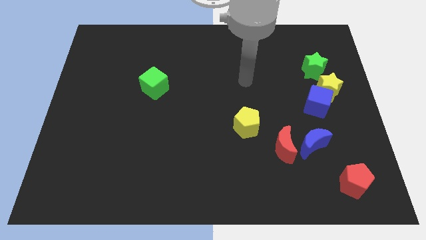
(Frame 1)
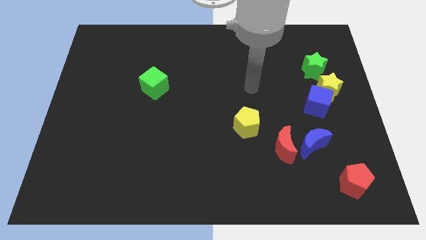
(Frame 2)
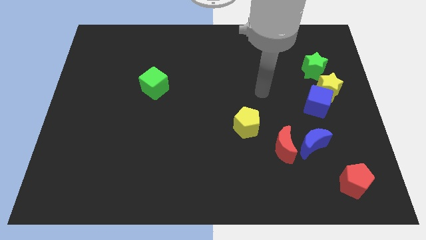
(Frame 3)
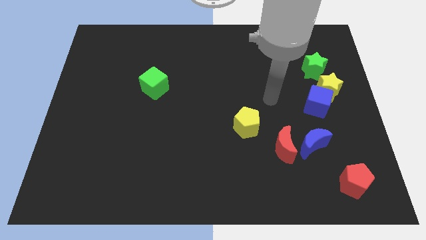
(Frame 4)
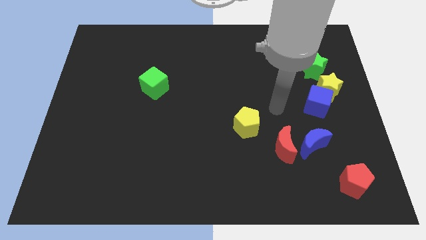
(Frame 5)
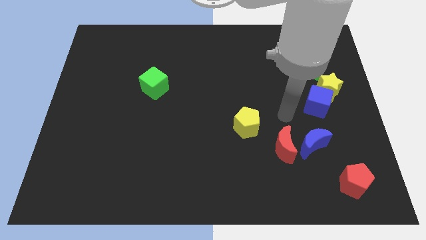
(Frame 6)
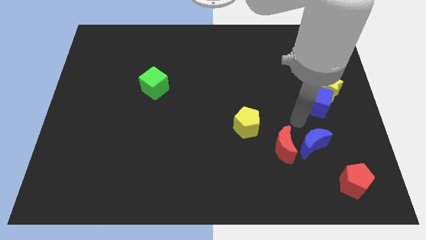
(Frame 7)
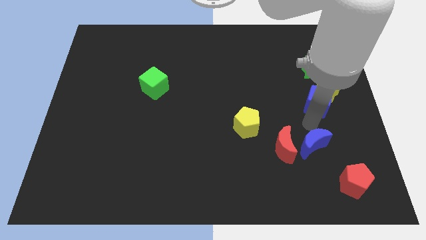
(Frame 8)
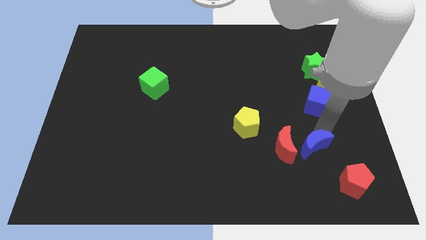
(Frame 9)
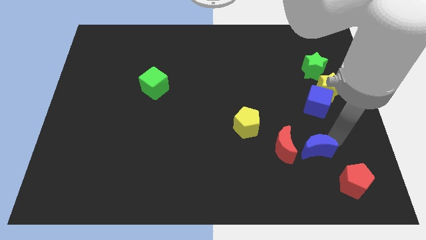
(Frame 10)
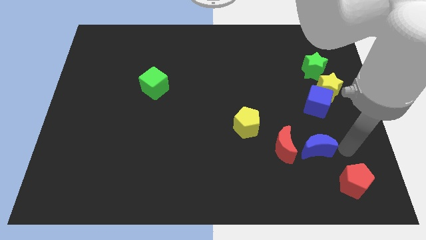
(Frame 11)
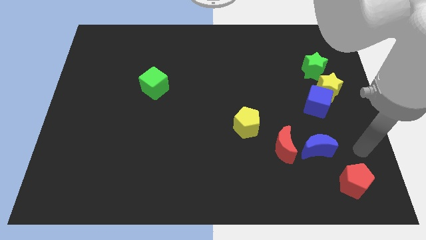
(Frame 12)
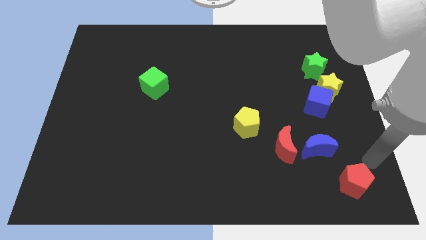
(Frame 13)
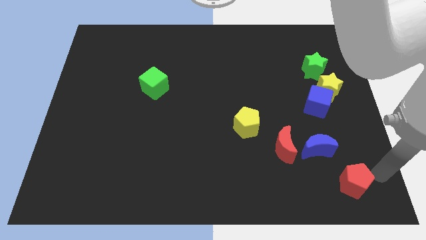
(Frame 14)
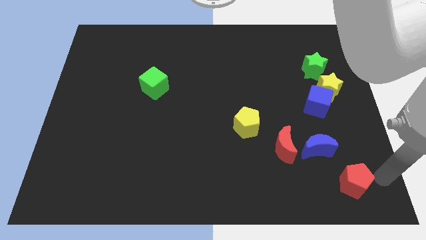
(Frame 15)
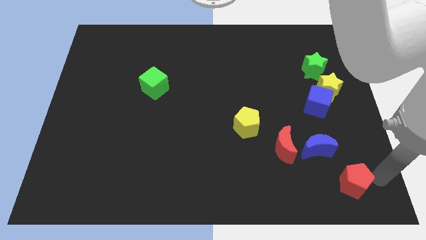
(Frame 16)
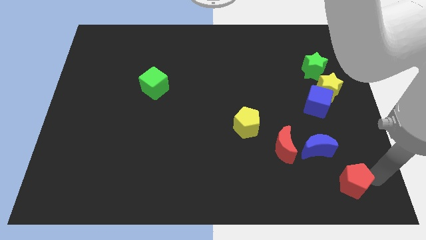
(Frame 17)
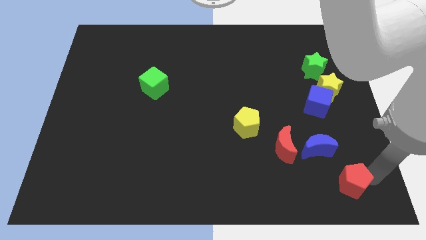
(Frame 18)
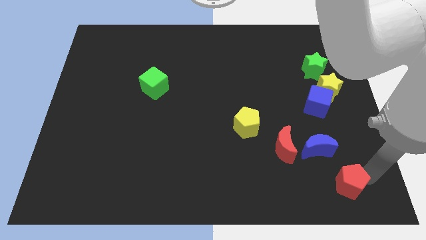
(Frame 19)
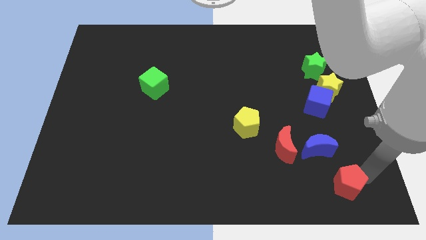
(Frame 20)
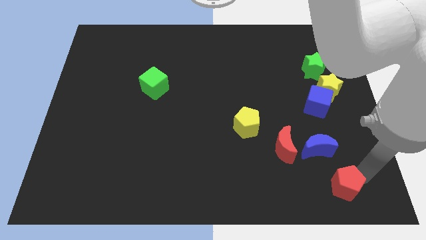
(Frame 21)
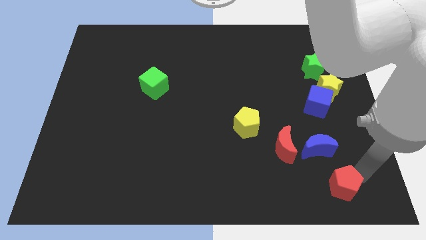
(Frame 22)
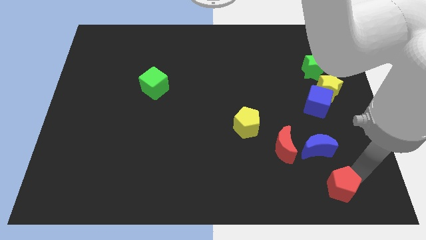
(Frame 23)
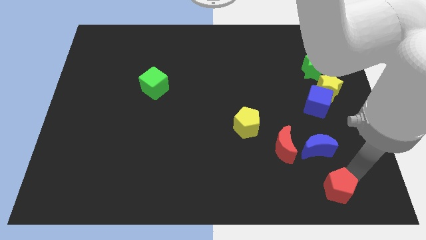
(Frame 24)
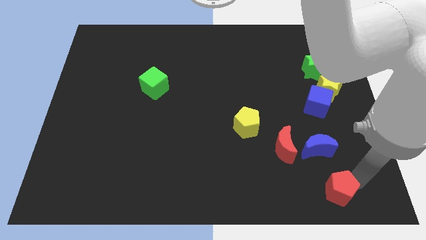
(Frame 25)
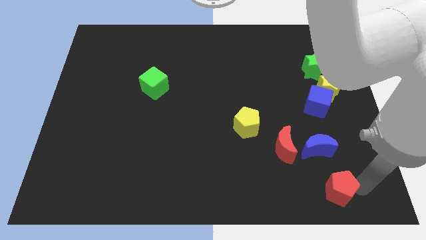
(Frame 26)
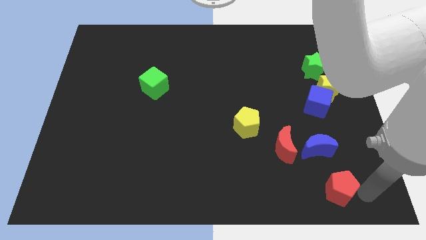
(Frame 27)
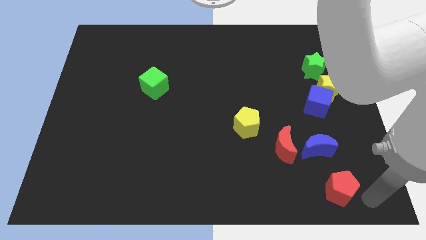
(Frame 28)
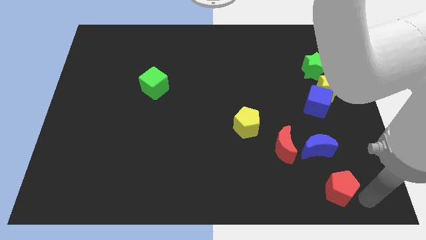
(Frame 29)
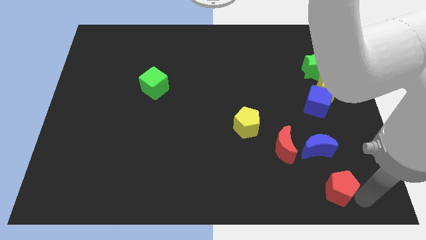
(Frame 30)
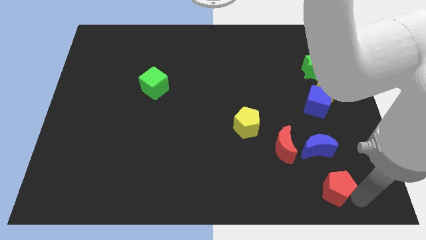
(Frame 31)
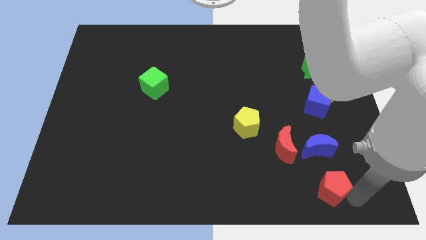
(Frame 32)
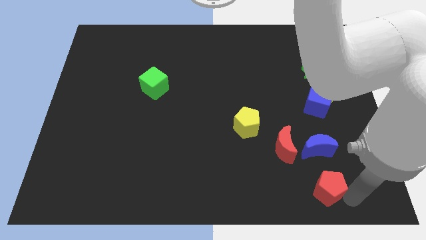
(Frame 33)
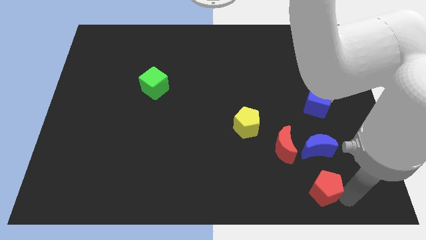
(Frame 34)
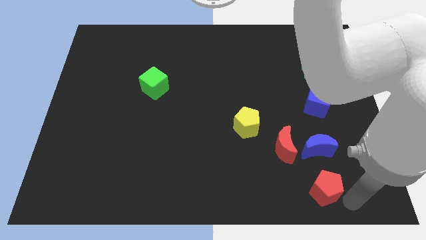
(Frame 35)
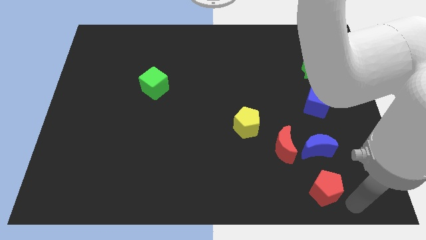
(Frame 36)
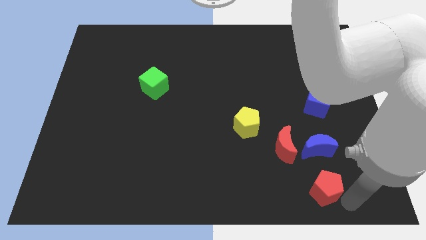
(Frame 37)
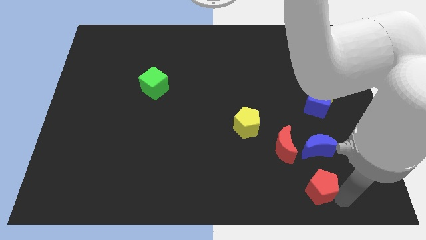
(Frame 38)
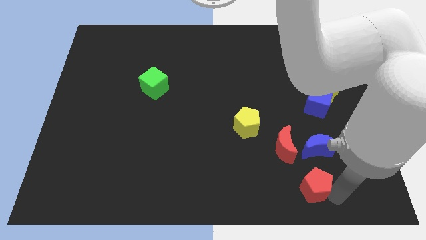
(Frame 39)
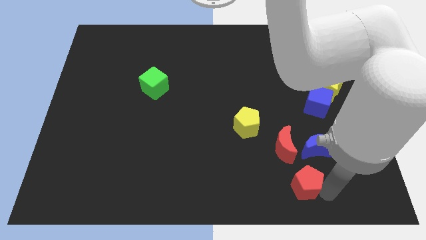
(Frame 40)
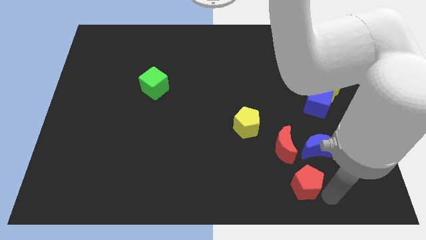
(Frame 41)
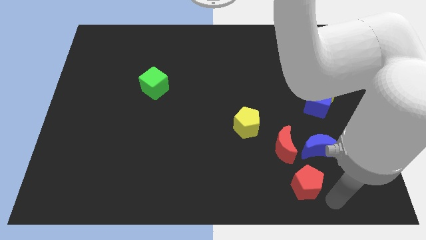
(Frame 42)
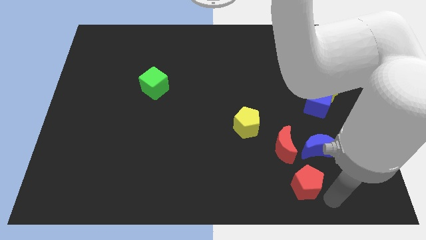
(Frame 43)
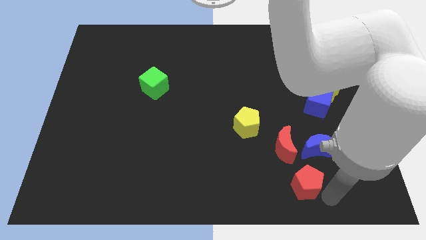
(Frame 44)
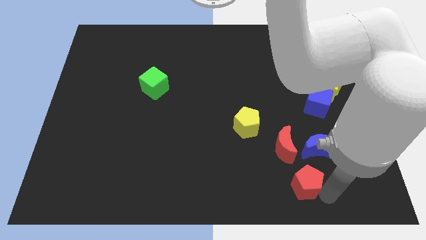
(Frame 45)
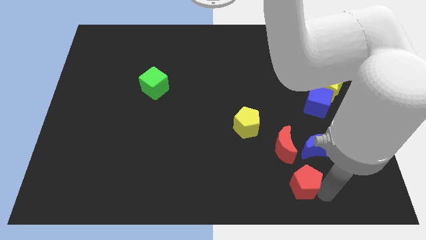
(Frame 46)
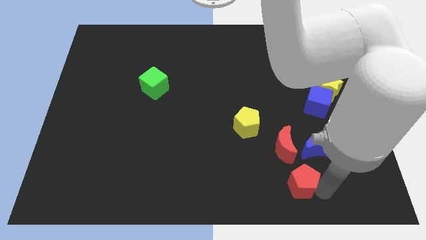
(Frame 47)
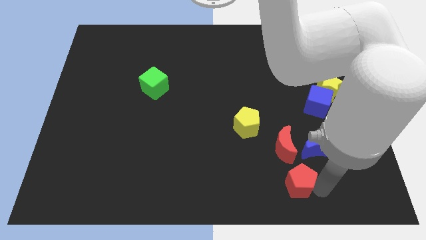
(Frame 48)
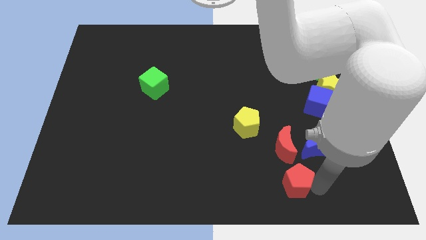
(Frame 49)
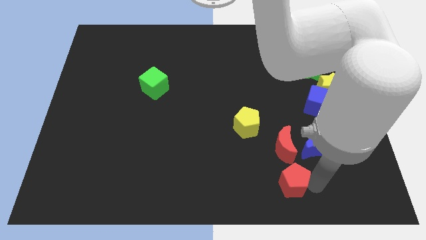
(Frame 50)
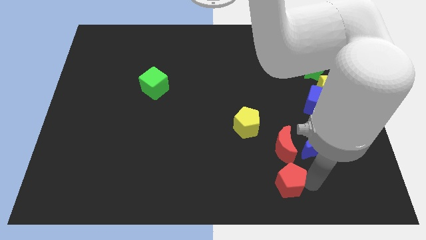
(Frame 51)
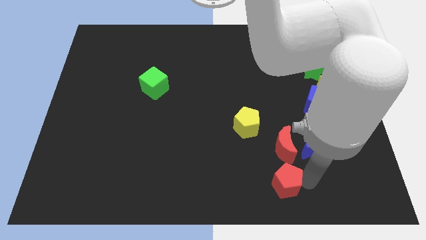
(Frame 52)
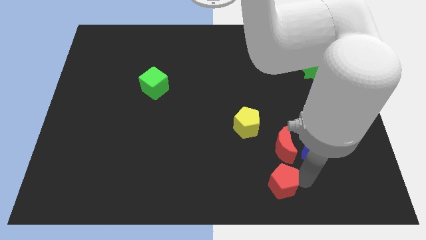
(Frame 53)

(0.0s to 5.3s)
put the red pentagon to the bottom left of the red moon

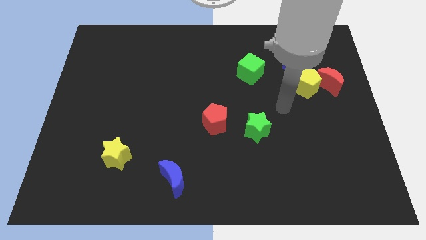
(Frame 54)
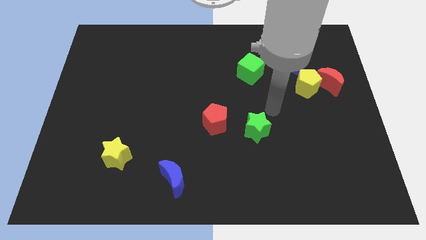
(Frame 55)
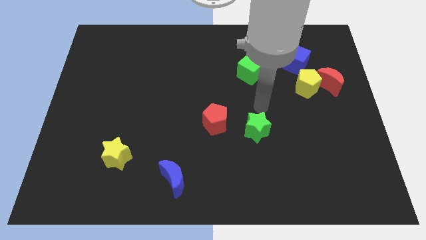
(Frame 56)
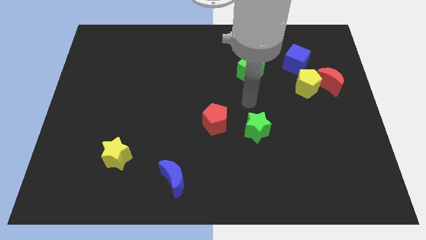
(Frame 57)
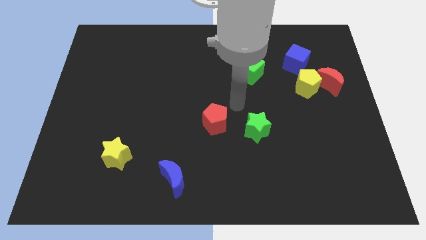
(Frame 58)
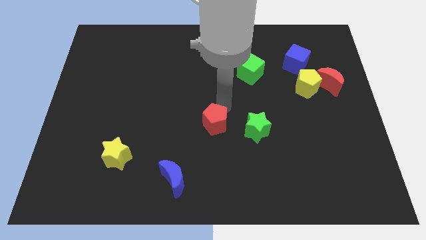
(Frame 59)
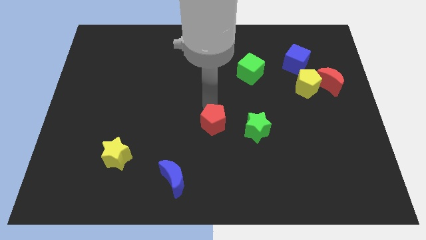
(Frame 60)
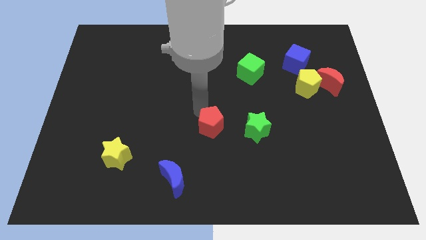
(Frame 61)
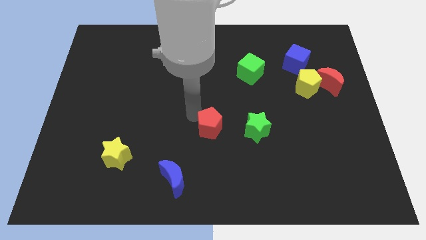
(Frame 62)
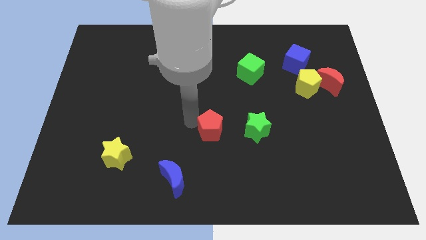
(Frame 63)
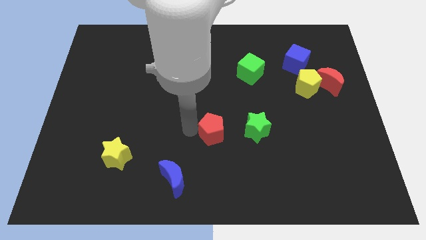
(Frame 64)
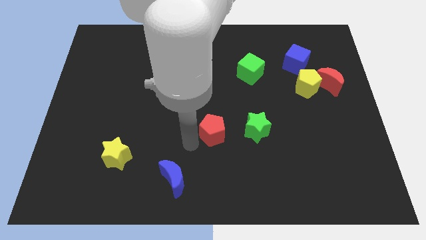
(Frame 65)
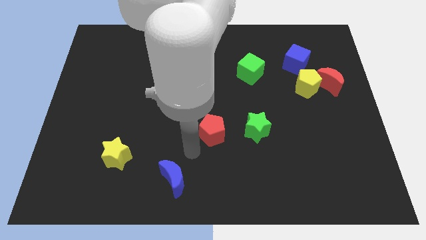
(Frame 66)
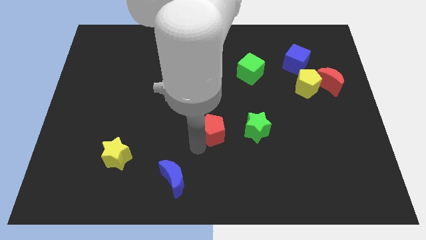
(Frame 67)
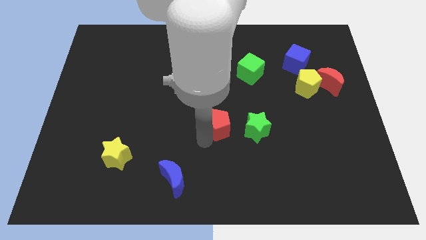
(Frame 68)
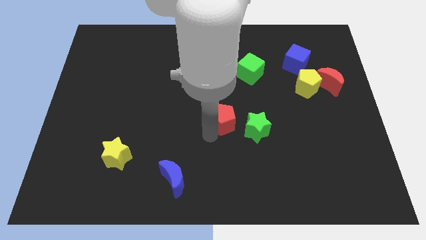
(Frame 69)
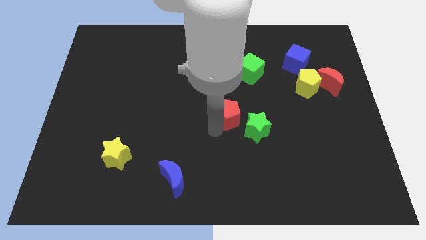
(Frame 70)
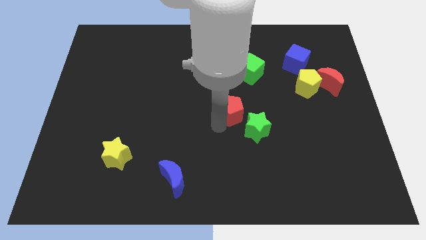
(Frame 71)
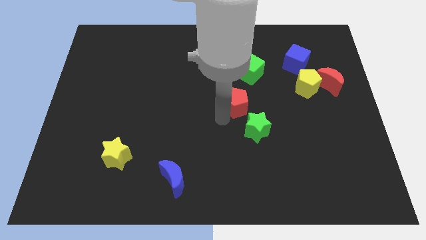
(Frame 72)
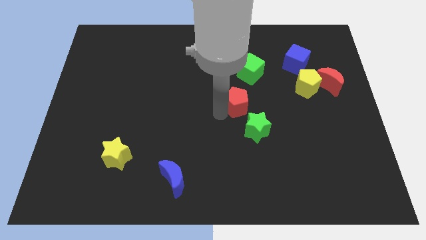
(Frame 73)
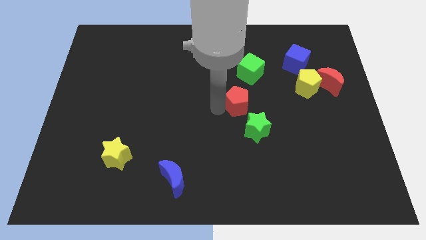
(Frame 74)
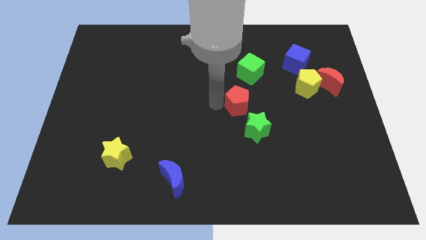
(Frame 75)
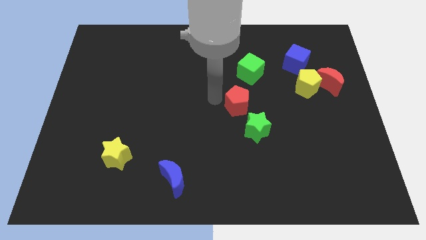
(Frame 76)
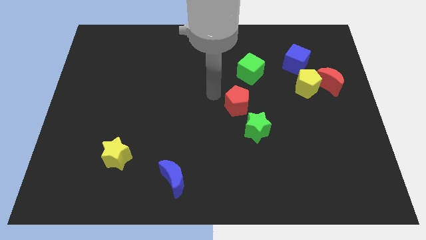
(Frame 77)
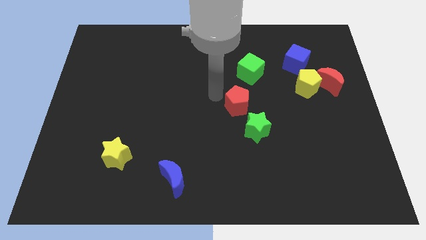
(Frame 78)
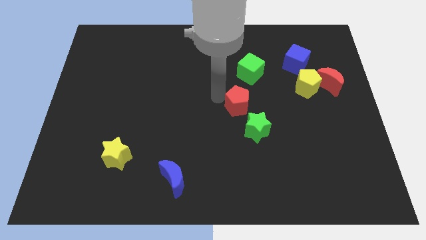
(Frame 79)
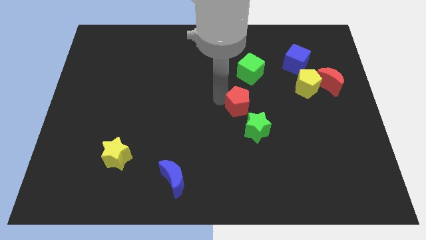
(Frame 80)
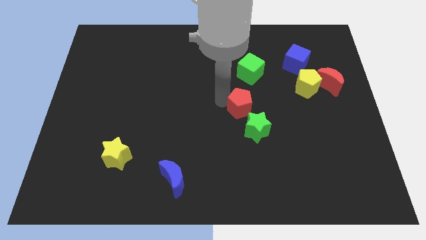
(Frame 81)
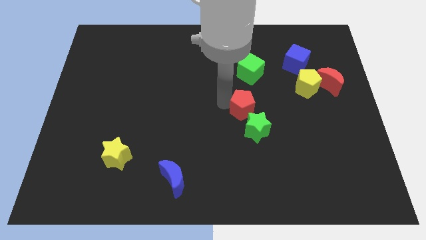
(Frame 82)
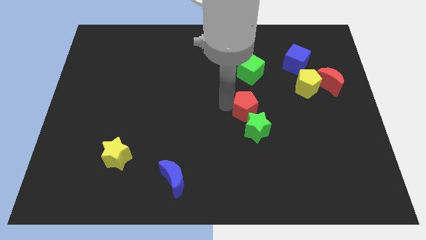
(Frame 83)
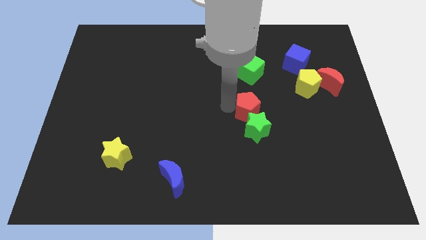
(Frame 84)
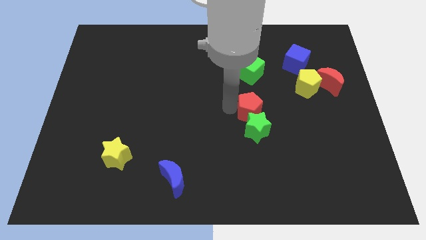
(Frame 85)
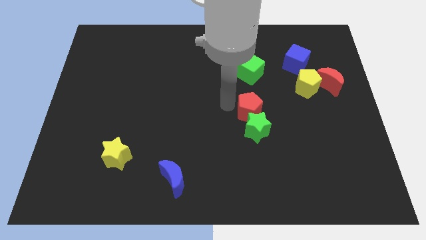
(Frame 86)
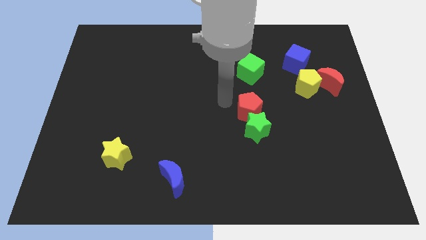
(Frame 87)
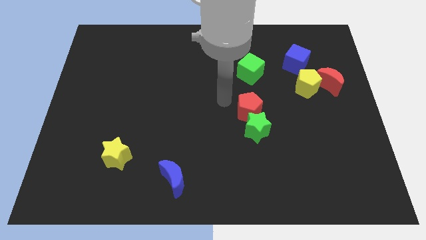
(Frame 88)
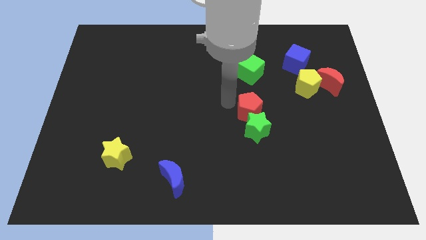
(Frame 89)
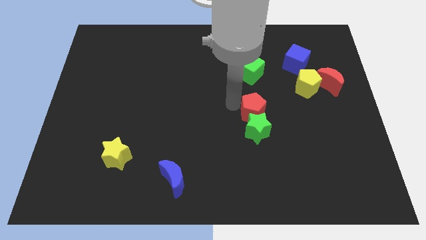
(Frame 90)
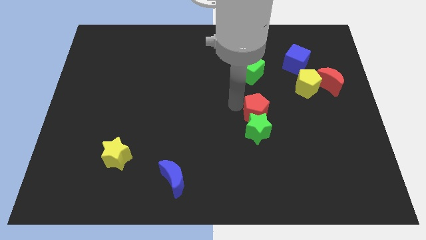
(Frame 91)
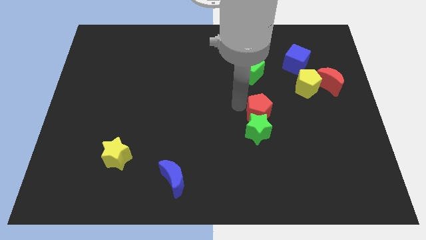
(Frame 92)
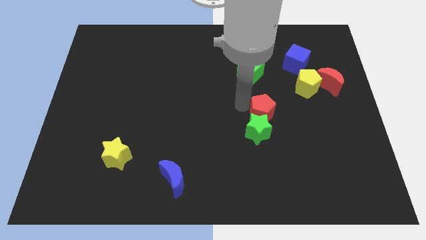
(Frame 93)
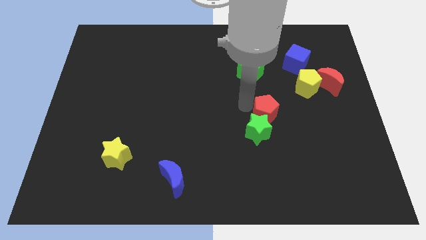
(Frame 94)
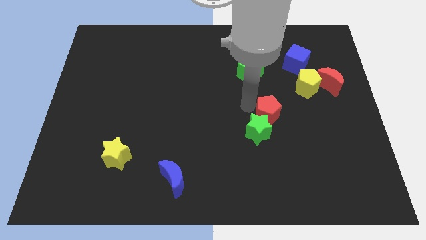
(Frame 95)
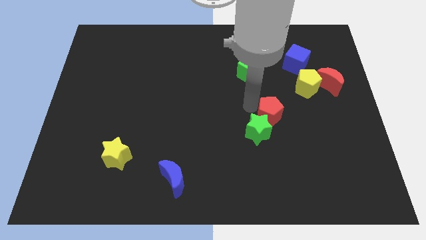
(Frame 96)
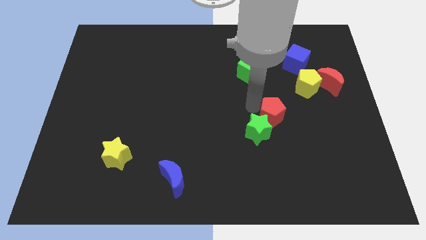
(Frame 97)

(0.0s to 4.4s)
slide the red pentagon right of the green star
